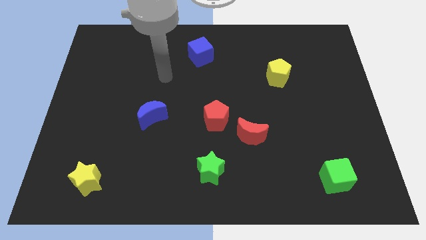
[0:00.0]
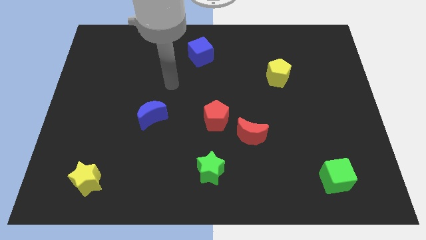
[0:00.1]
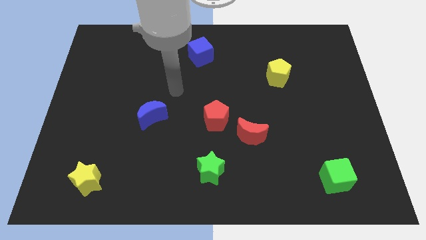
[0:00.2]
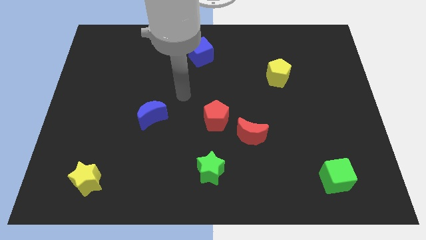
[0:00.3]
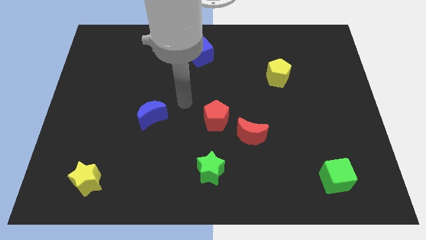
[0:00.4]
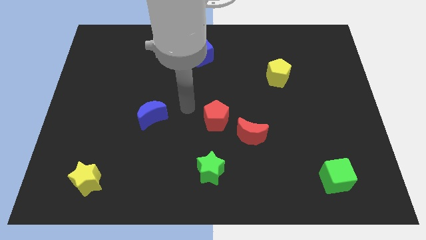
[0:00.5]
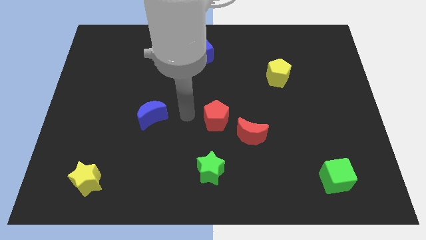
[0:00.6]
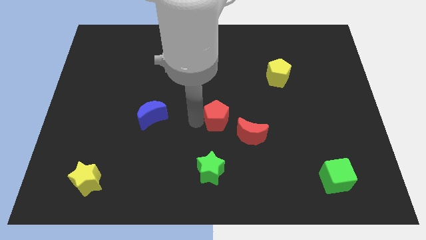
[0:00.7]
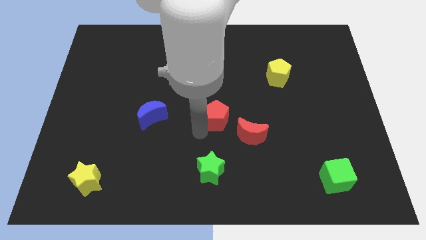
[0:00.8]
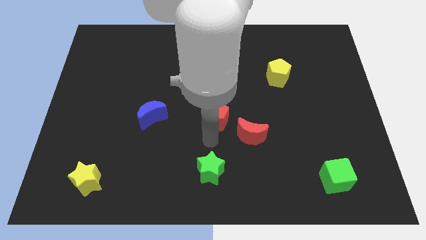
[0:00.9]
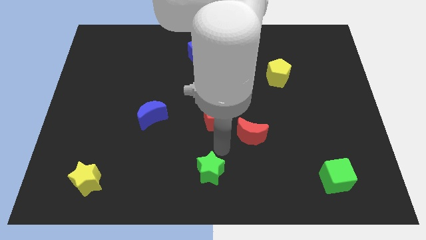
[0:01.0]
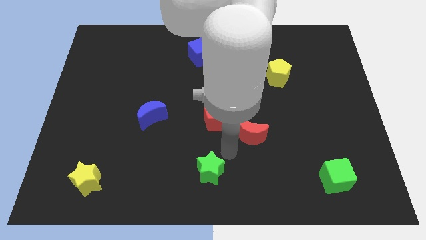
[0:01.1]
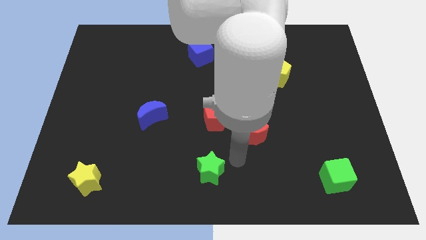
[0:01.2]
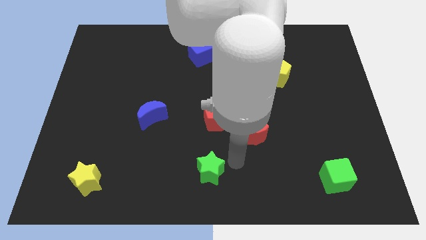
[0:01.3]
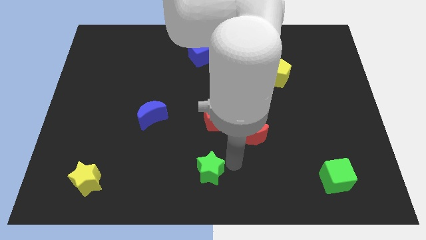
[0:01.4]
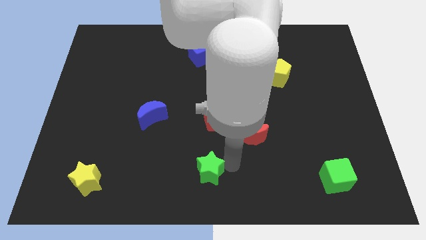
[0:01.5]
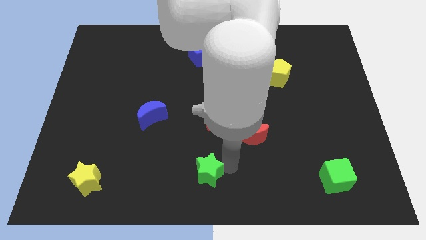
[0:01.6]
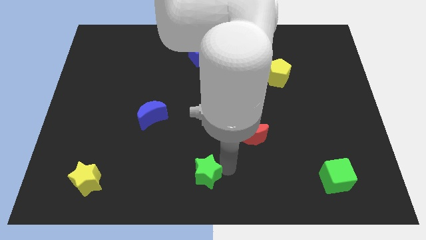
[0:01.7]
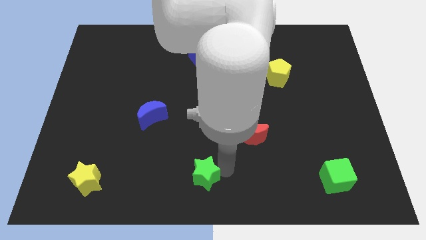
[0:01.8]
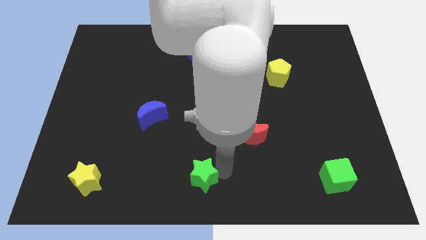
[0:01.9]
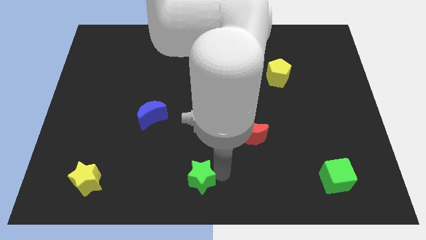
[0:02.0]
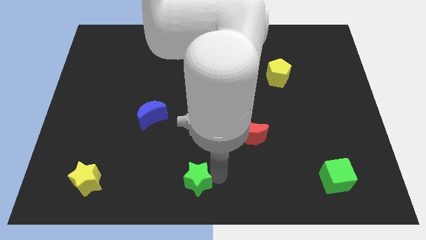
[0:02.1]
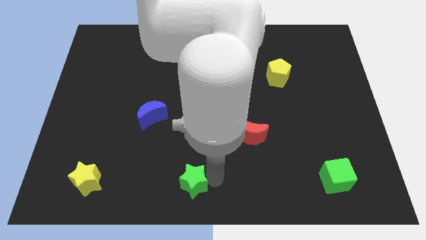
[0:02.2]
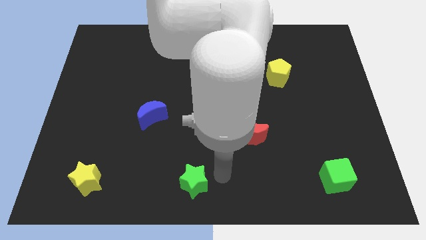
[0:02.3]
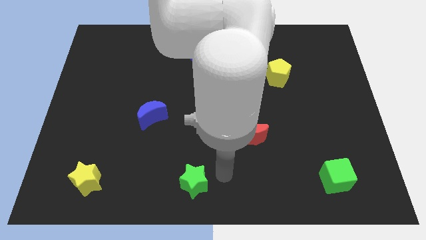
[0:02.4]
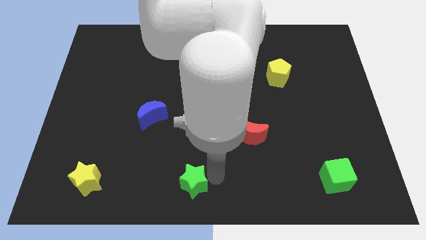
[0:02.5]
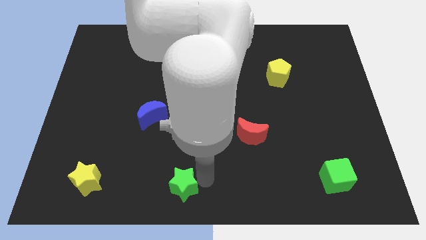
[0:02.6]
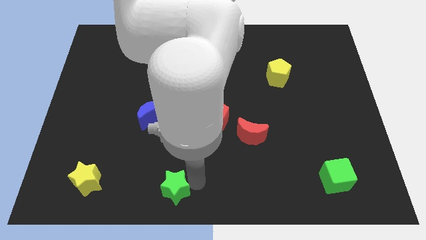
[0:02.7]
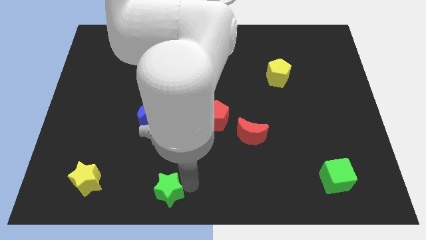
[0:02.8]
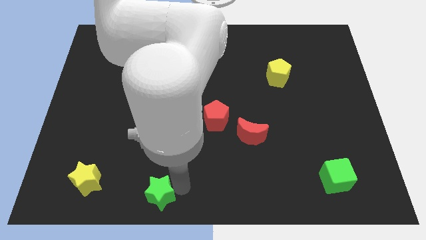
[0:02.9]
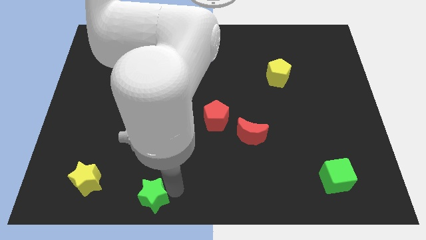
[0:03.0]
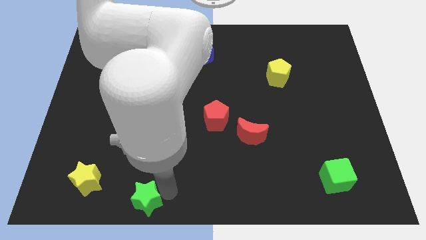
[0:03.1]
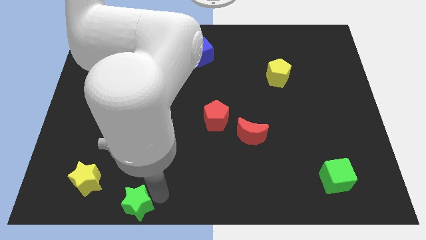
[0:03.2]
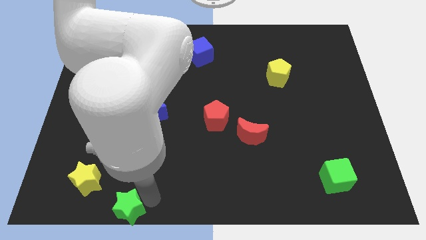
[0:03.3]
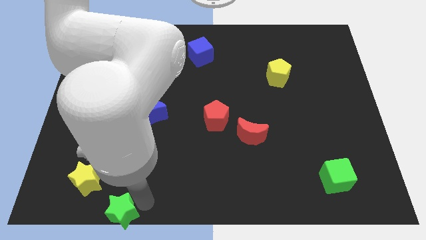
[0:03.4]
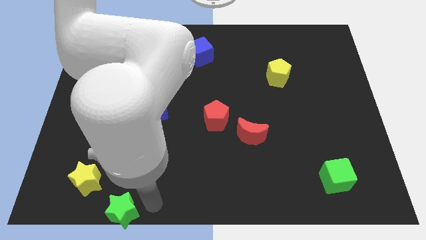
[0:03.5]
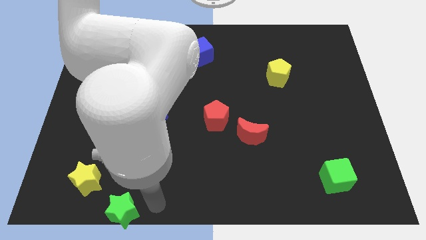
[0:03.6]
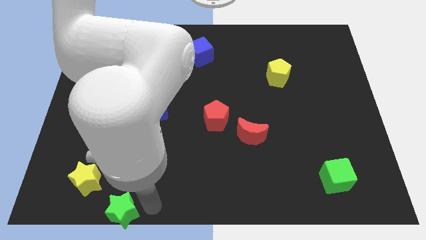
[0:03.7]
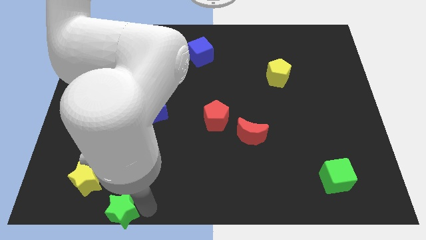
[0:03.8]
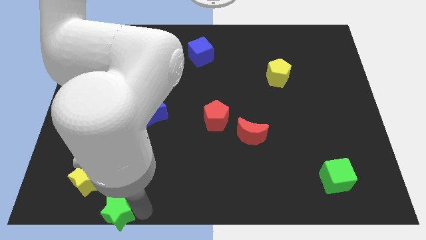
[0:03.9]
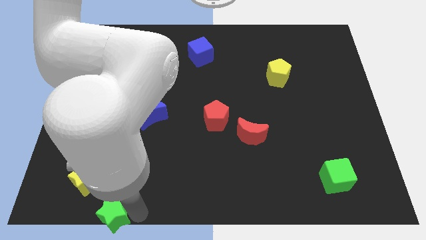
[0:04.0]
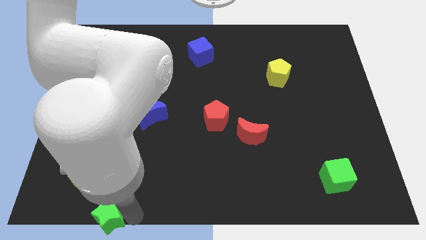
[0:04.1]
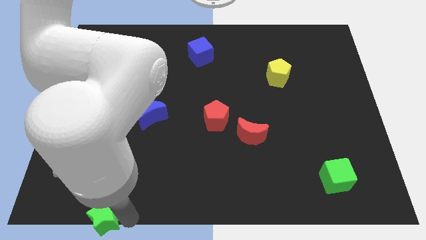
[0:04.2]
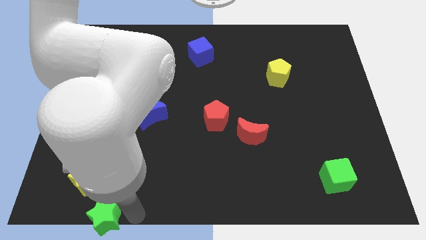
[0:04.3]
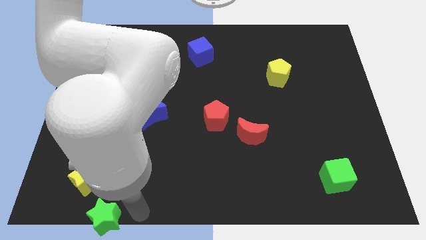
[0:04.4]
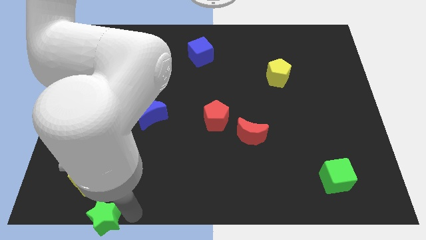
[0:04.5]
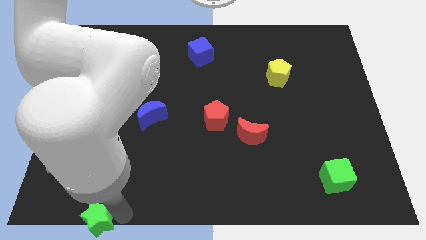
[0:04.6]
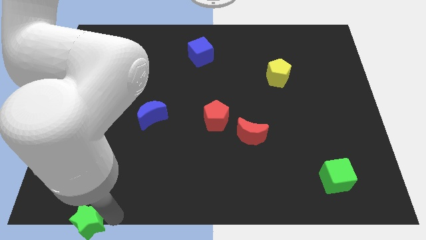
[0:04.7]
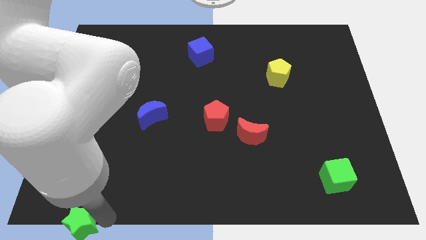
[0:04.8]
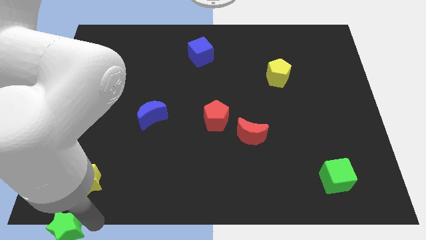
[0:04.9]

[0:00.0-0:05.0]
push the green star to the lower left corner

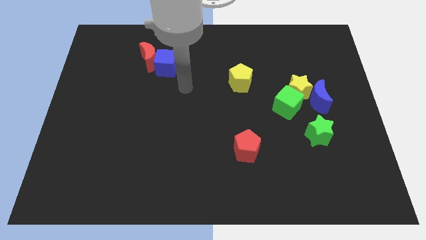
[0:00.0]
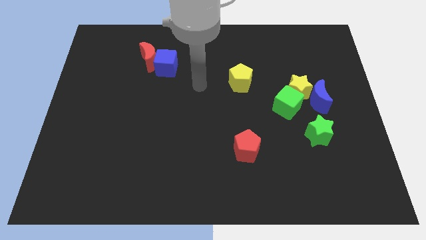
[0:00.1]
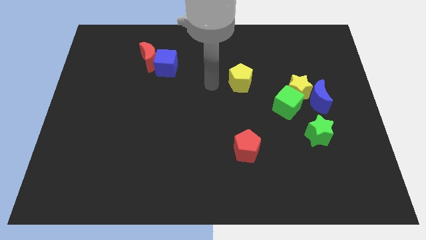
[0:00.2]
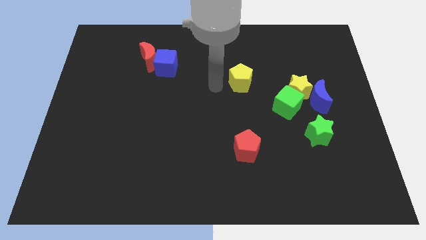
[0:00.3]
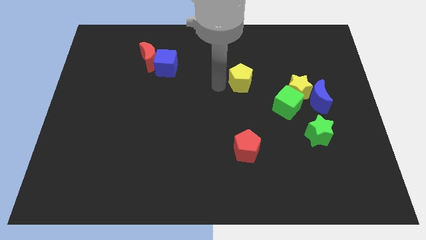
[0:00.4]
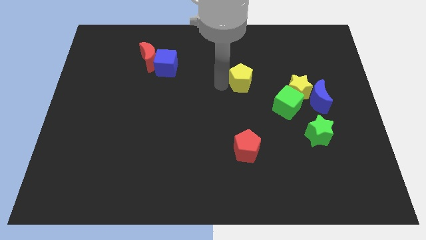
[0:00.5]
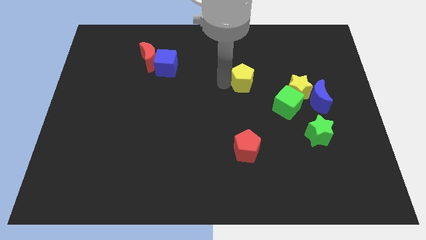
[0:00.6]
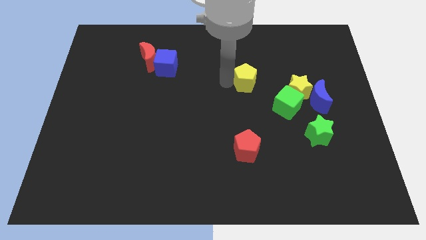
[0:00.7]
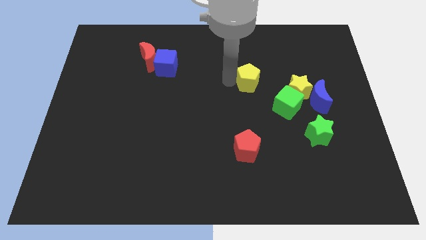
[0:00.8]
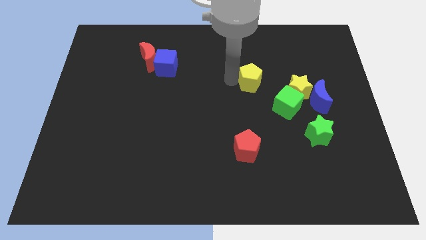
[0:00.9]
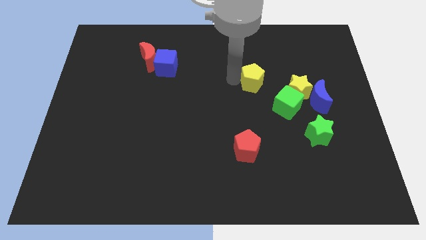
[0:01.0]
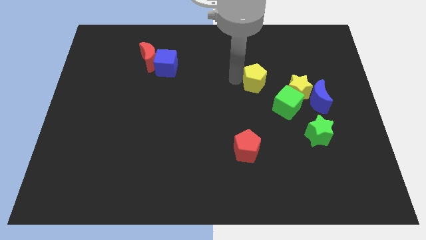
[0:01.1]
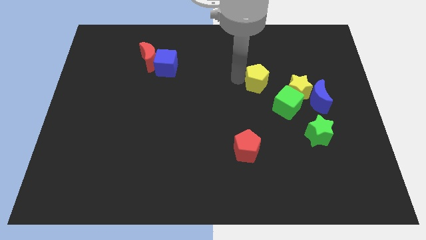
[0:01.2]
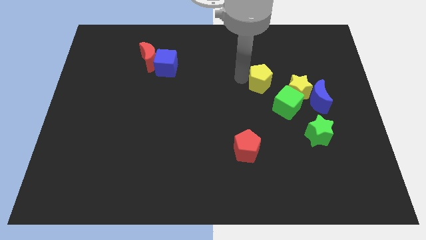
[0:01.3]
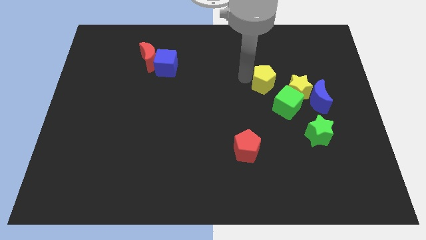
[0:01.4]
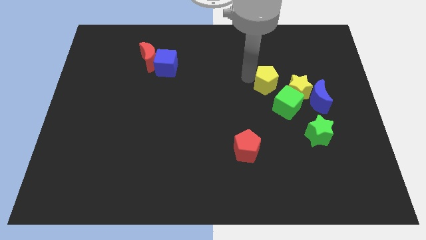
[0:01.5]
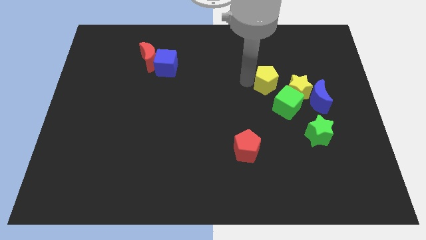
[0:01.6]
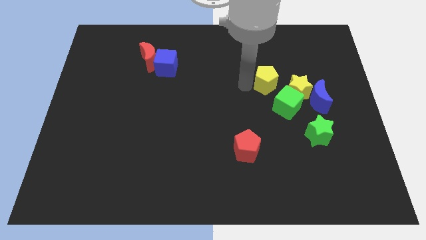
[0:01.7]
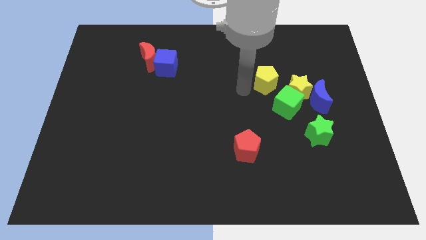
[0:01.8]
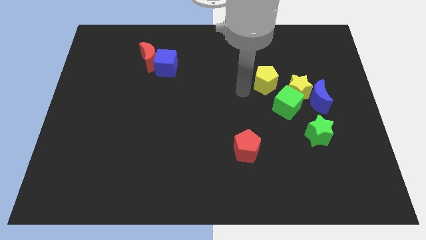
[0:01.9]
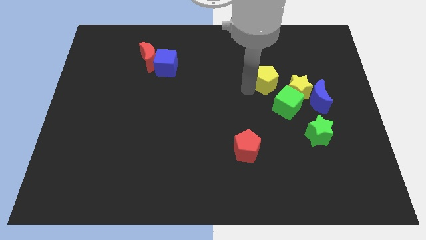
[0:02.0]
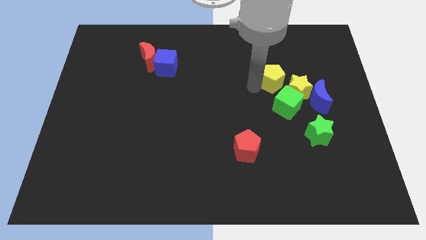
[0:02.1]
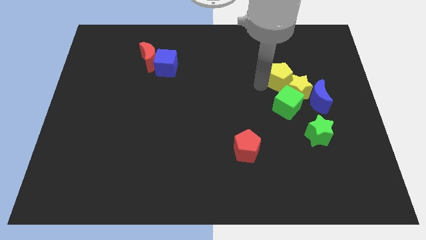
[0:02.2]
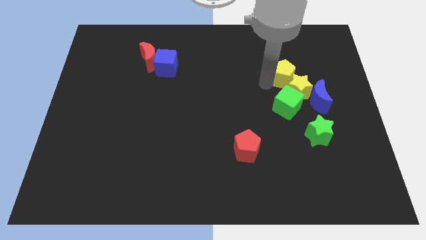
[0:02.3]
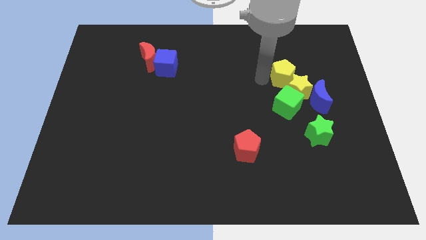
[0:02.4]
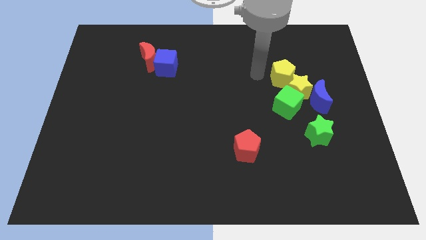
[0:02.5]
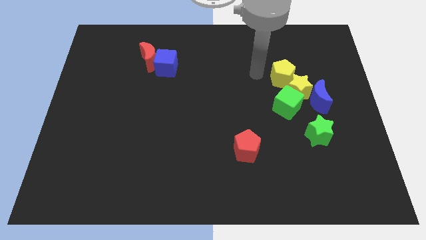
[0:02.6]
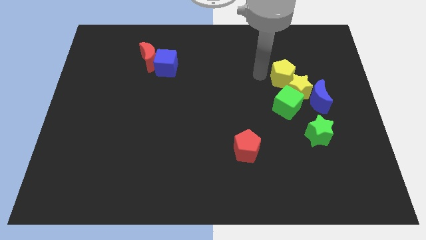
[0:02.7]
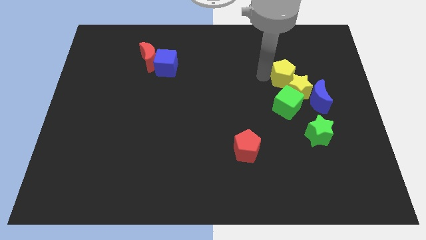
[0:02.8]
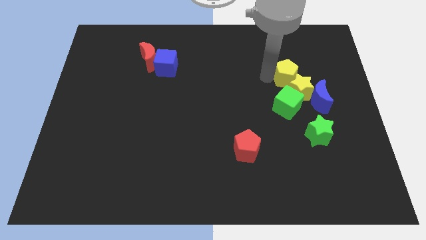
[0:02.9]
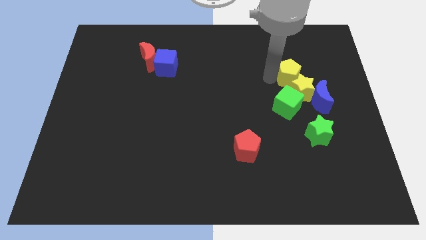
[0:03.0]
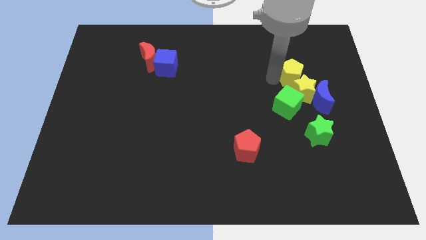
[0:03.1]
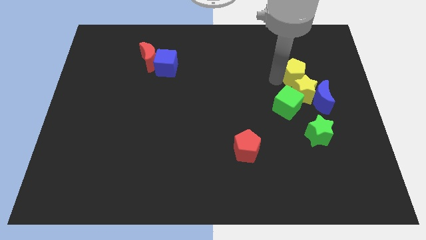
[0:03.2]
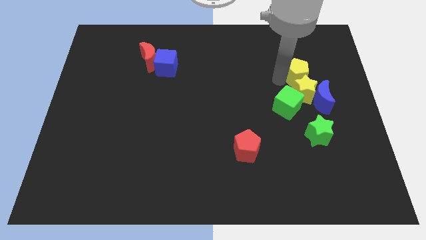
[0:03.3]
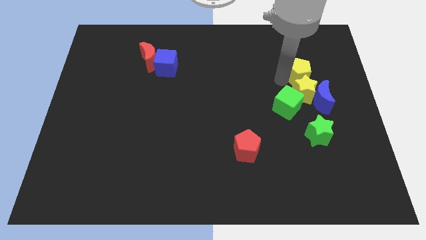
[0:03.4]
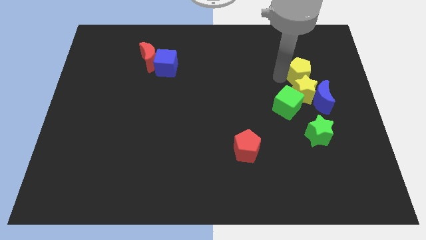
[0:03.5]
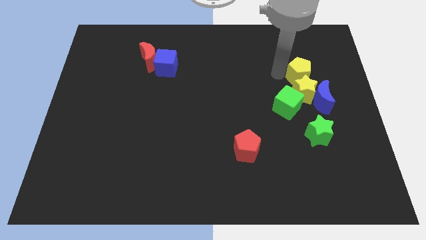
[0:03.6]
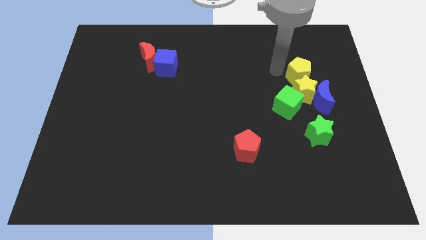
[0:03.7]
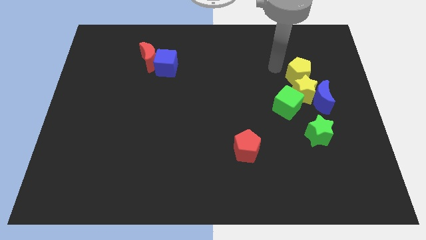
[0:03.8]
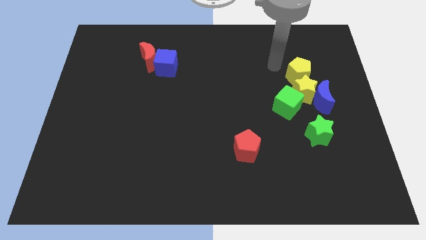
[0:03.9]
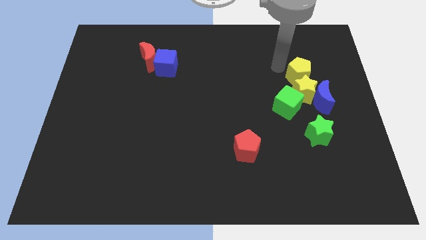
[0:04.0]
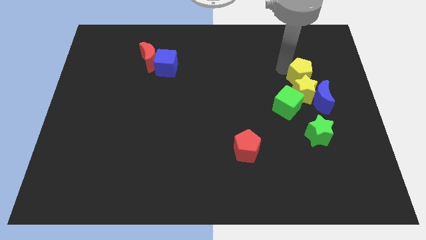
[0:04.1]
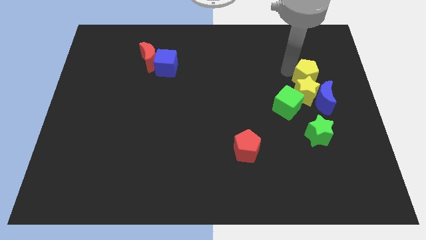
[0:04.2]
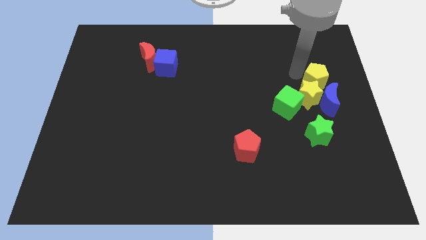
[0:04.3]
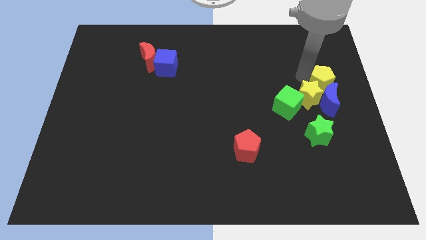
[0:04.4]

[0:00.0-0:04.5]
put the yellow pentagon to the right side
